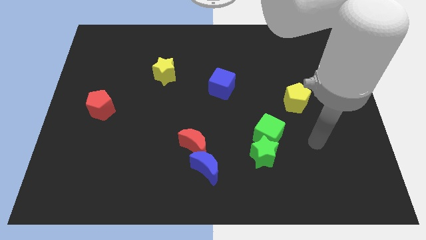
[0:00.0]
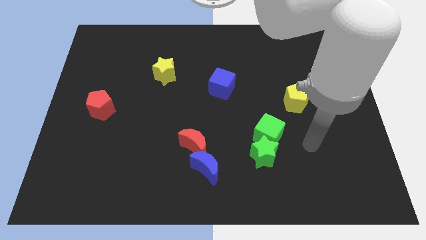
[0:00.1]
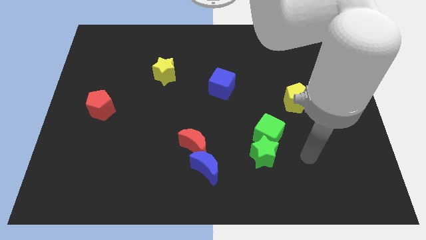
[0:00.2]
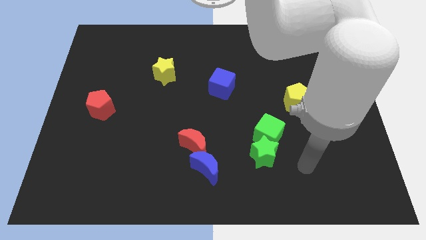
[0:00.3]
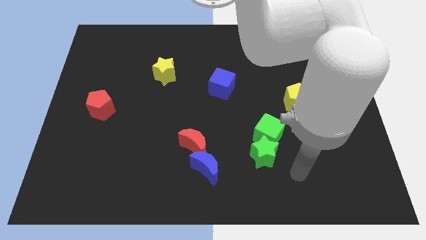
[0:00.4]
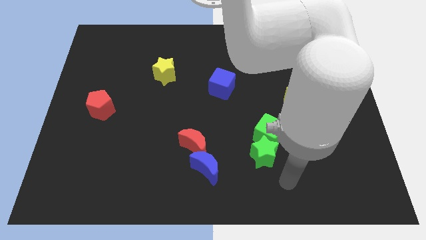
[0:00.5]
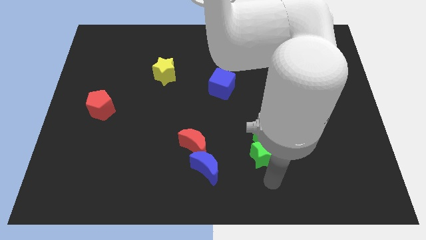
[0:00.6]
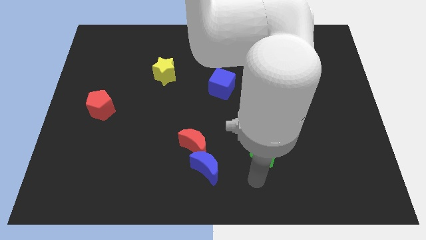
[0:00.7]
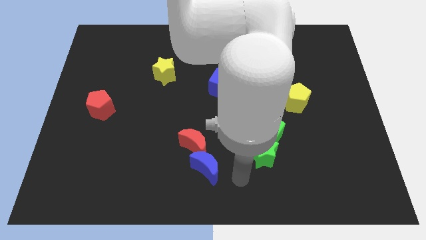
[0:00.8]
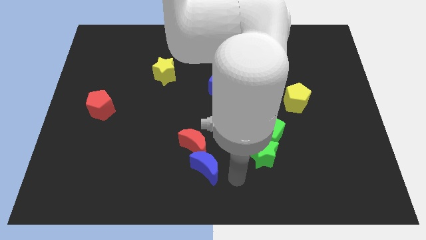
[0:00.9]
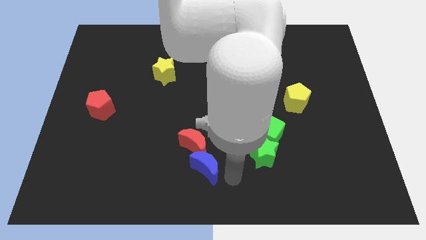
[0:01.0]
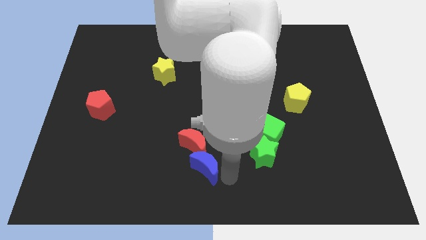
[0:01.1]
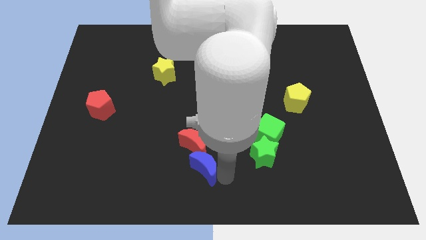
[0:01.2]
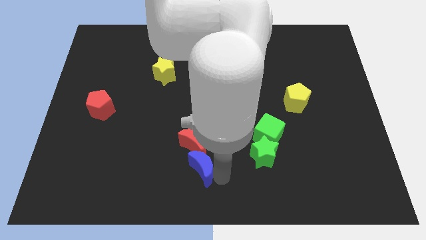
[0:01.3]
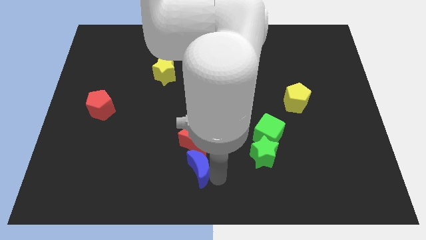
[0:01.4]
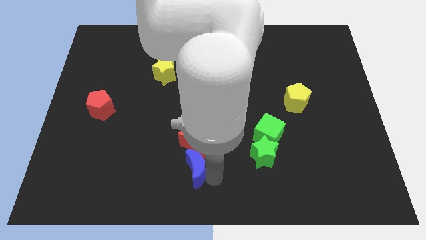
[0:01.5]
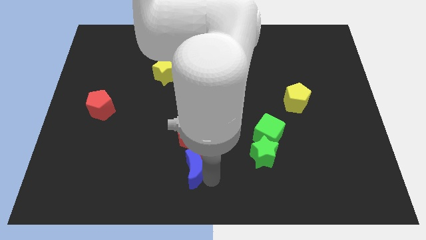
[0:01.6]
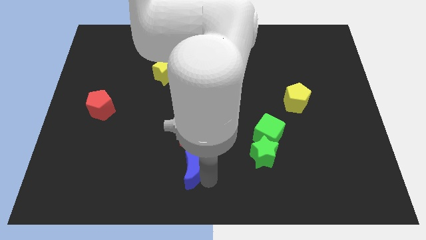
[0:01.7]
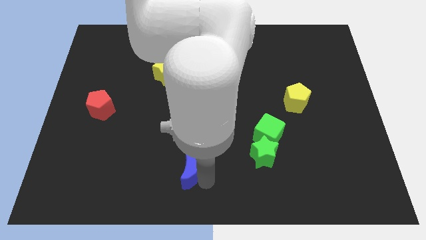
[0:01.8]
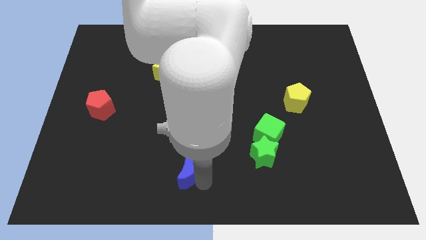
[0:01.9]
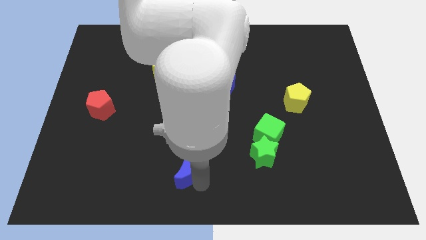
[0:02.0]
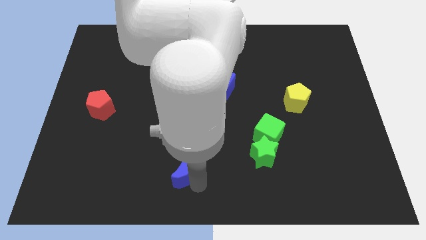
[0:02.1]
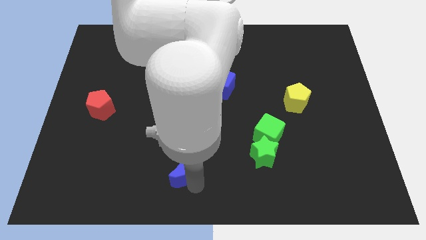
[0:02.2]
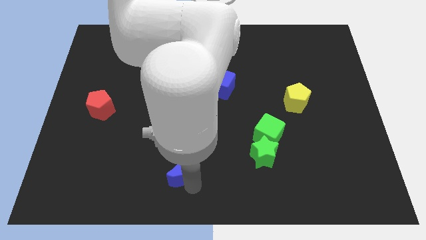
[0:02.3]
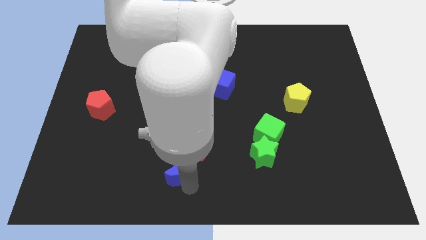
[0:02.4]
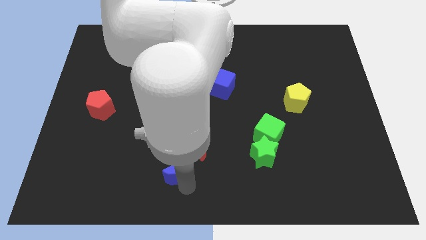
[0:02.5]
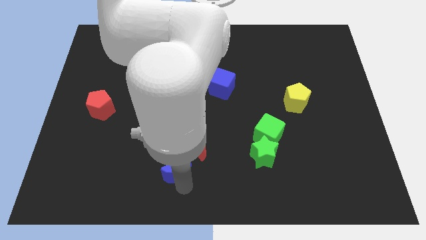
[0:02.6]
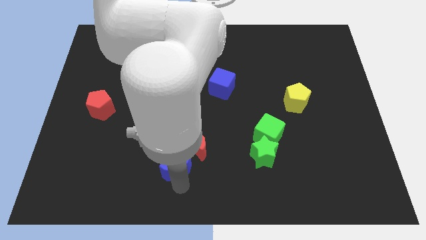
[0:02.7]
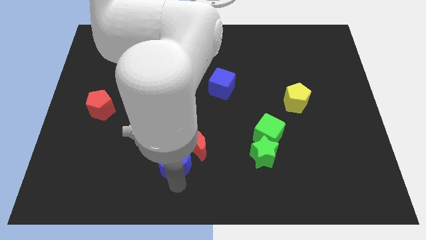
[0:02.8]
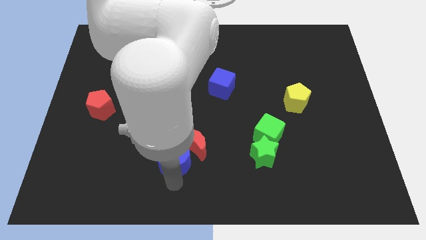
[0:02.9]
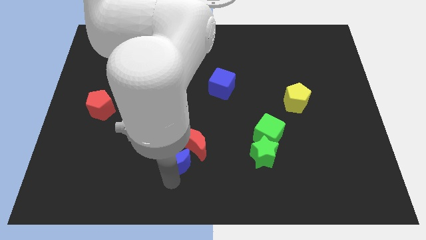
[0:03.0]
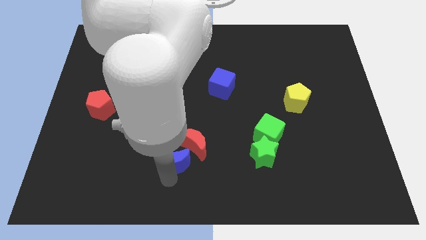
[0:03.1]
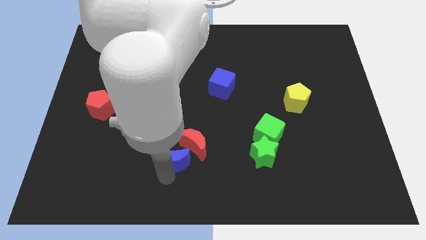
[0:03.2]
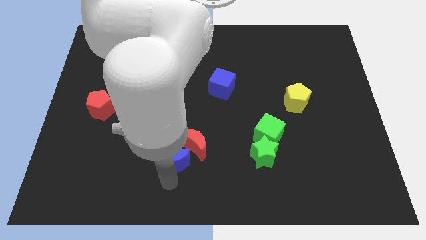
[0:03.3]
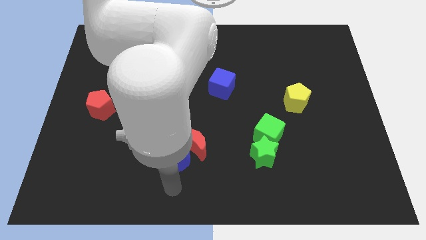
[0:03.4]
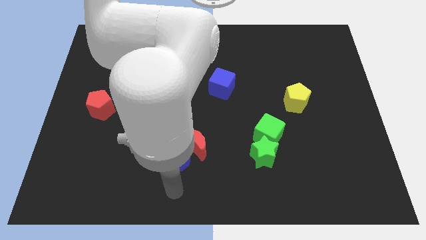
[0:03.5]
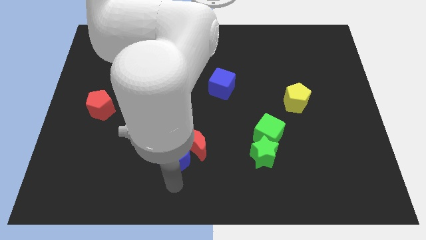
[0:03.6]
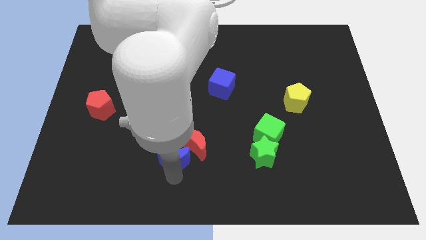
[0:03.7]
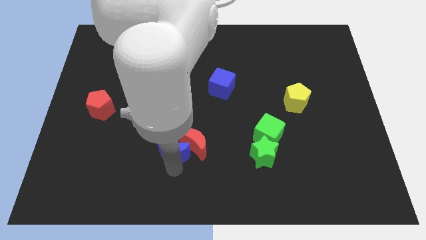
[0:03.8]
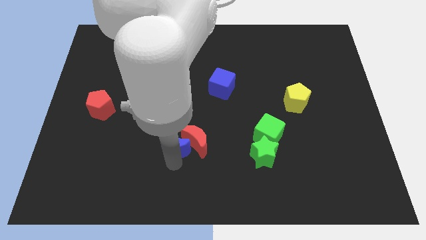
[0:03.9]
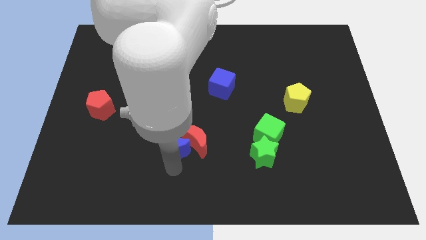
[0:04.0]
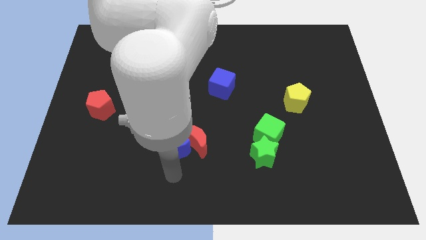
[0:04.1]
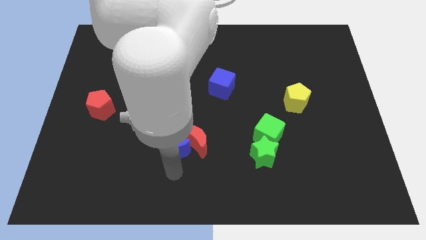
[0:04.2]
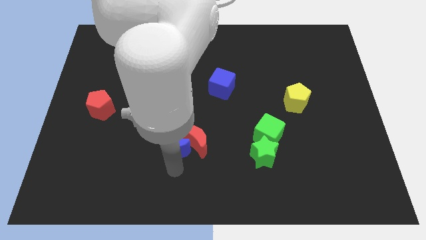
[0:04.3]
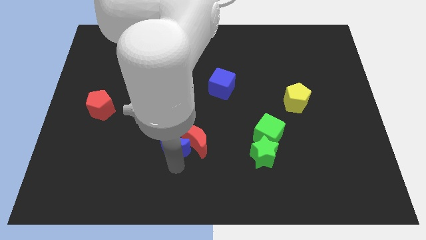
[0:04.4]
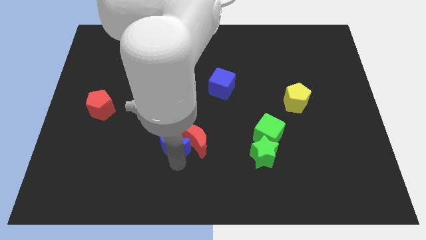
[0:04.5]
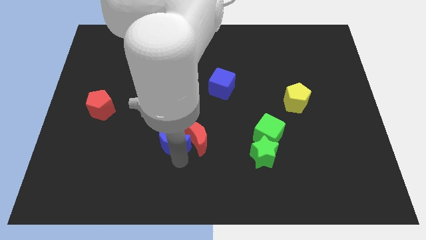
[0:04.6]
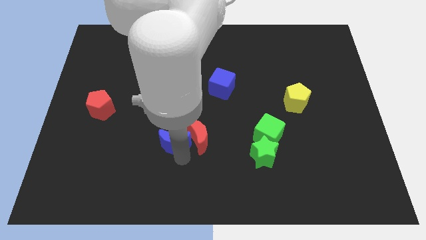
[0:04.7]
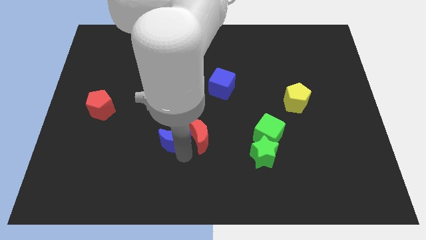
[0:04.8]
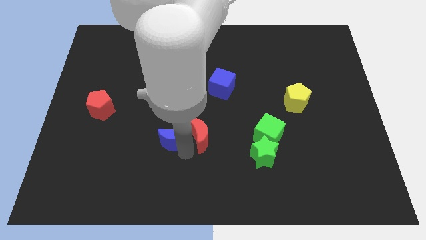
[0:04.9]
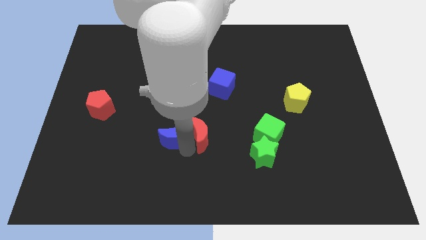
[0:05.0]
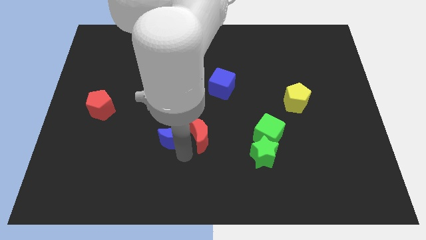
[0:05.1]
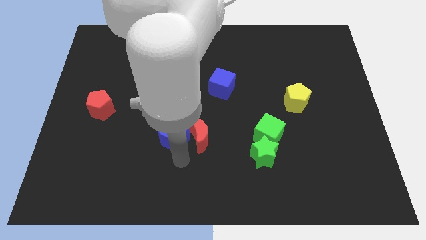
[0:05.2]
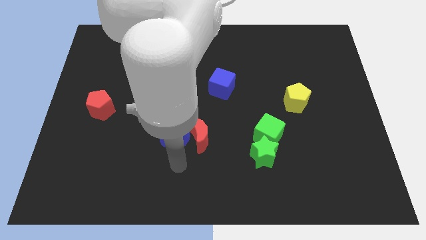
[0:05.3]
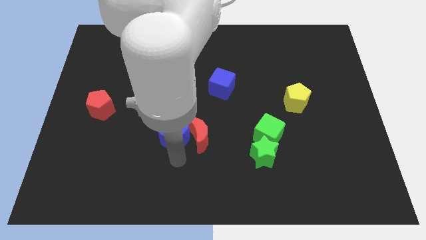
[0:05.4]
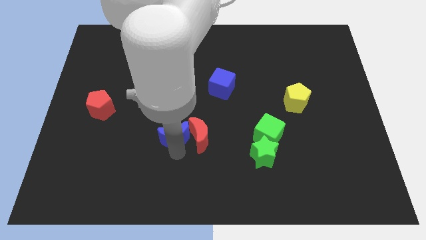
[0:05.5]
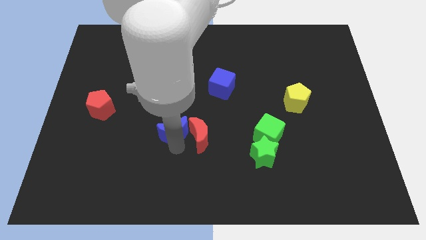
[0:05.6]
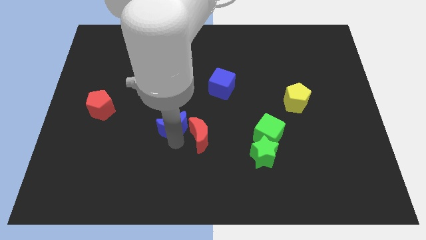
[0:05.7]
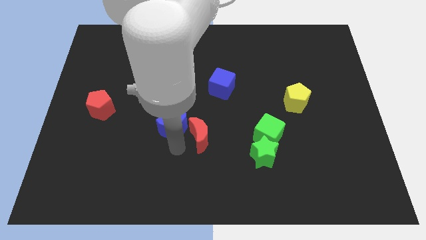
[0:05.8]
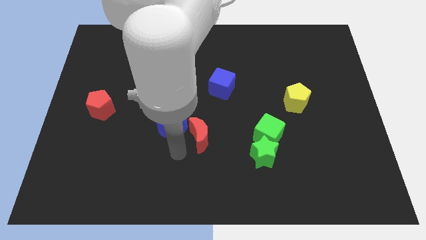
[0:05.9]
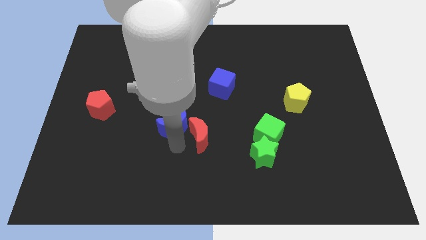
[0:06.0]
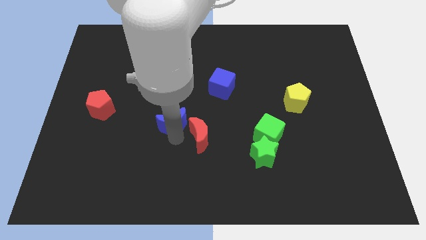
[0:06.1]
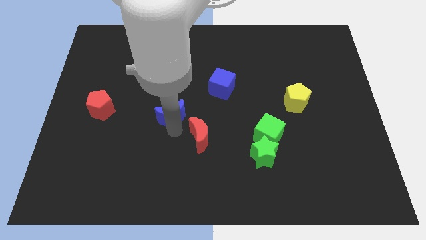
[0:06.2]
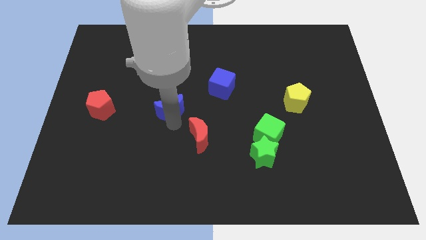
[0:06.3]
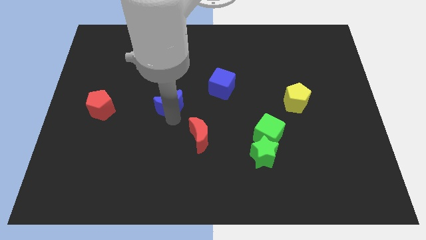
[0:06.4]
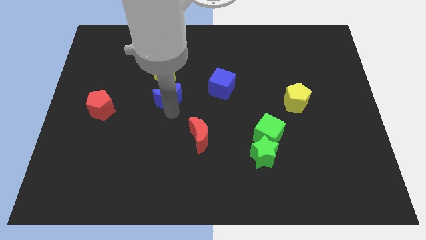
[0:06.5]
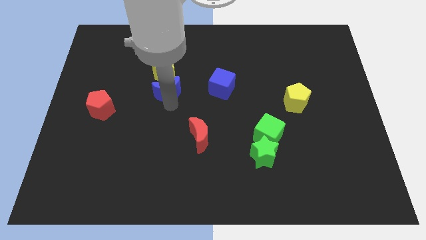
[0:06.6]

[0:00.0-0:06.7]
slide the blue moon towards the yellow star
